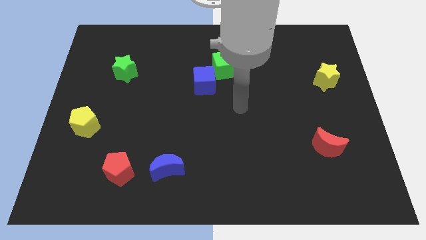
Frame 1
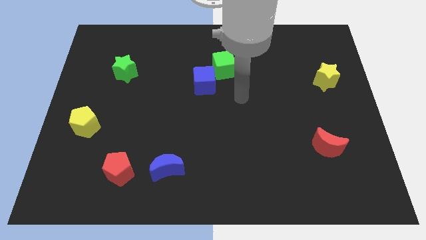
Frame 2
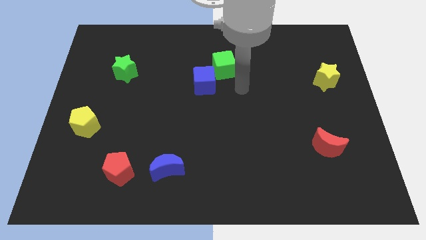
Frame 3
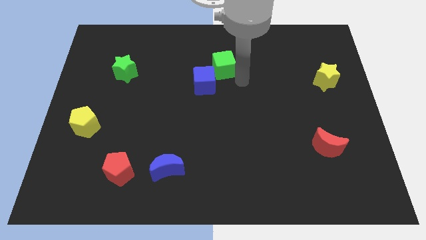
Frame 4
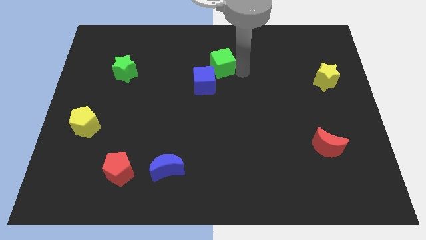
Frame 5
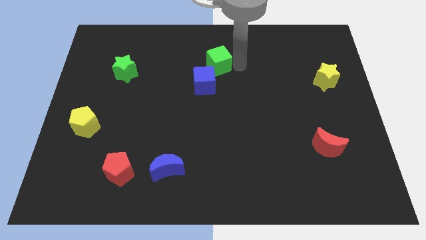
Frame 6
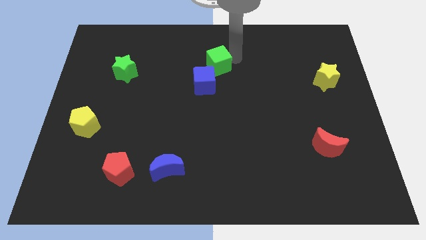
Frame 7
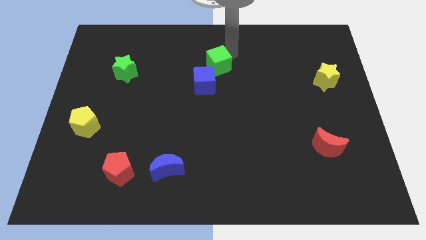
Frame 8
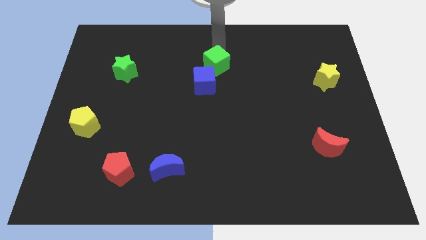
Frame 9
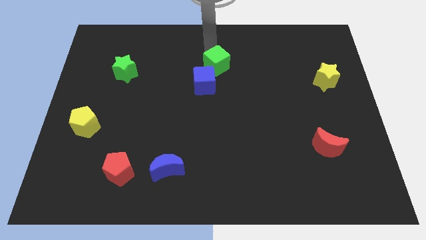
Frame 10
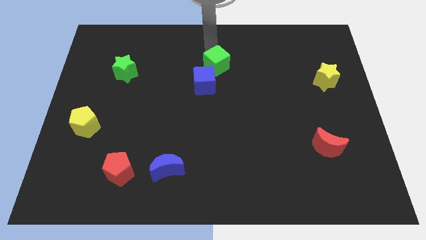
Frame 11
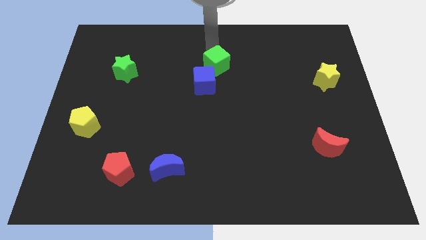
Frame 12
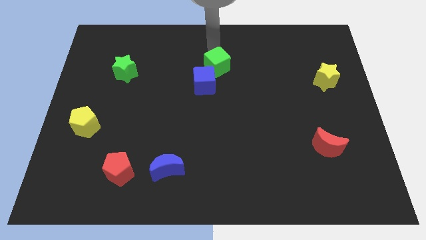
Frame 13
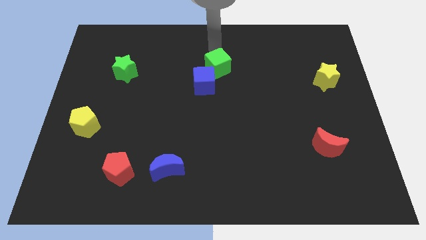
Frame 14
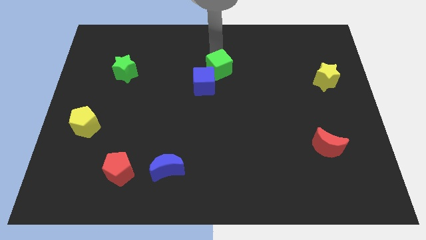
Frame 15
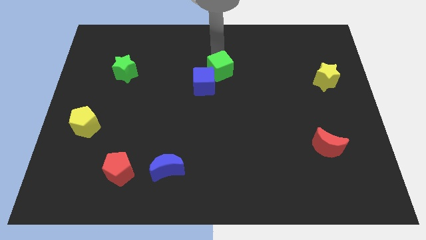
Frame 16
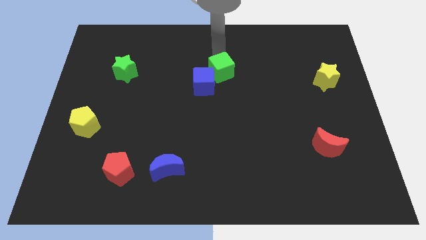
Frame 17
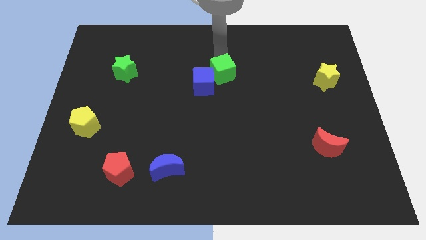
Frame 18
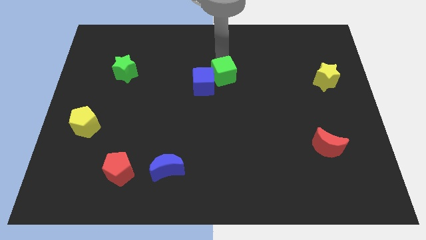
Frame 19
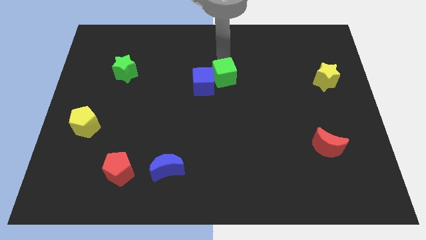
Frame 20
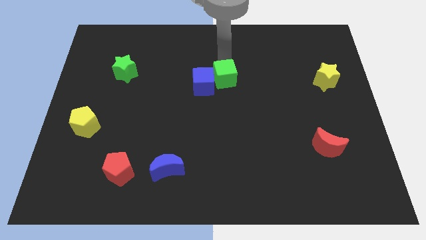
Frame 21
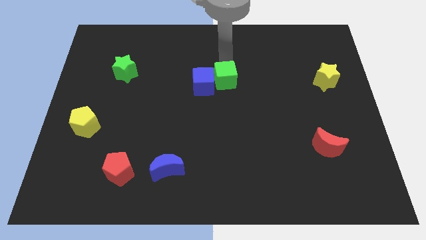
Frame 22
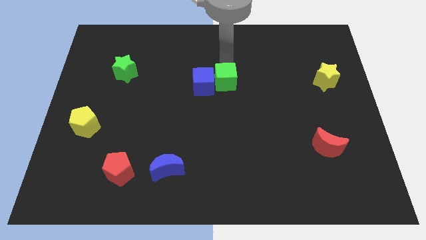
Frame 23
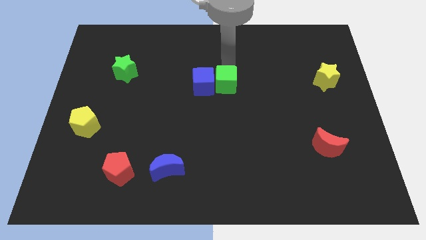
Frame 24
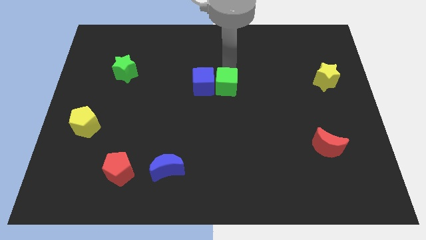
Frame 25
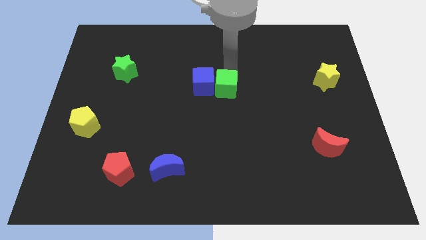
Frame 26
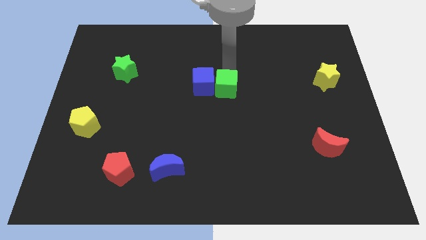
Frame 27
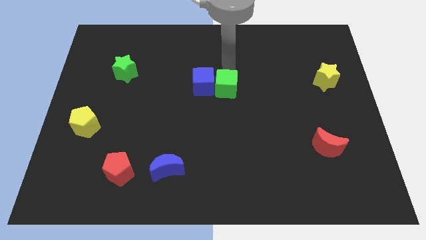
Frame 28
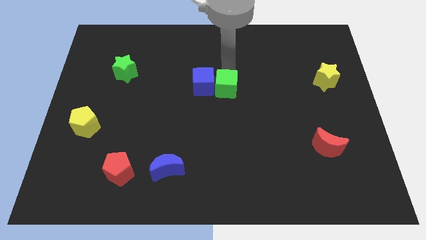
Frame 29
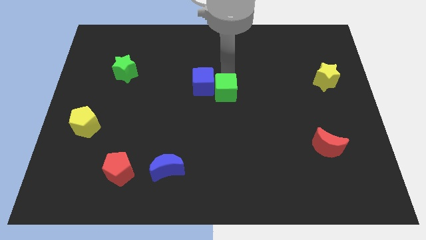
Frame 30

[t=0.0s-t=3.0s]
slide the green cube a little downwards

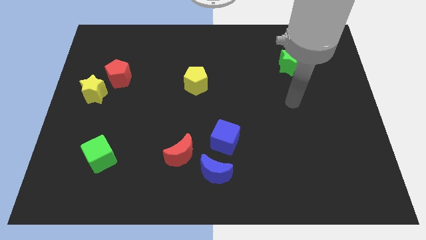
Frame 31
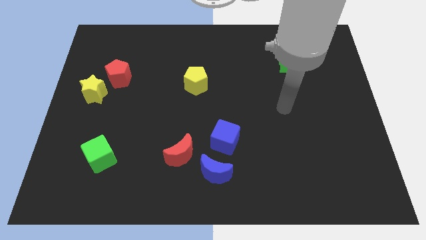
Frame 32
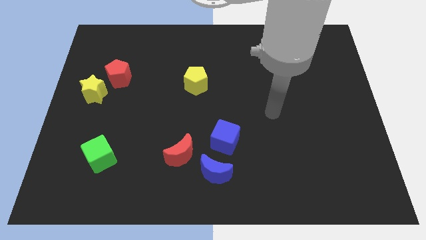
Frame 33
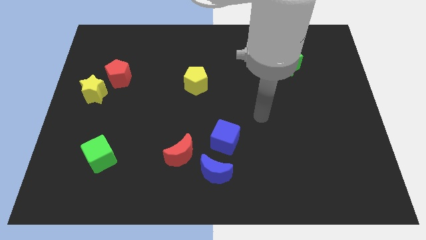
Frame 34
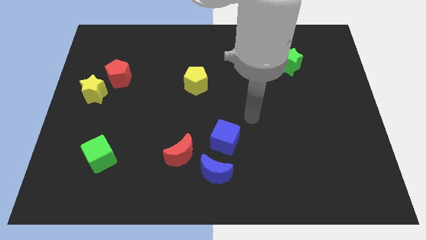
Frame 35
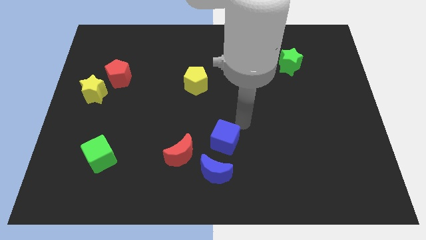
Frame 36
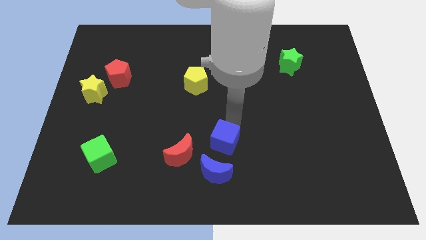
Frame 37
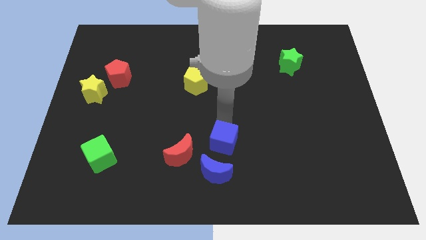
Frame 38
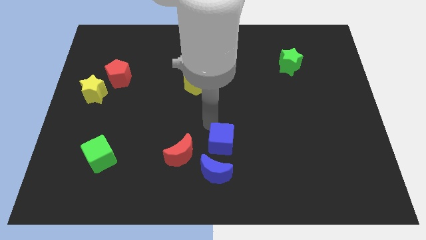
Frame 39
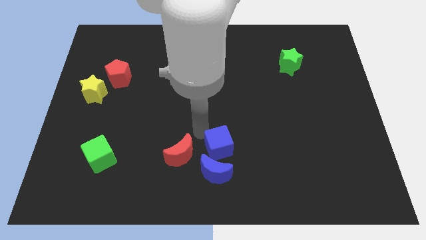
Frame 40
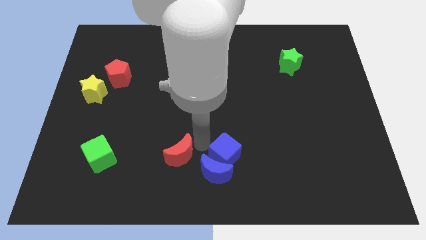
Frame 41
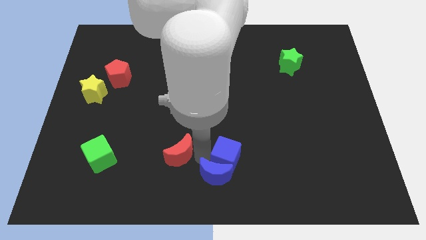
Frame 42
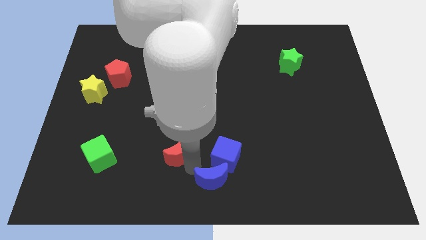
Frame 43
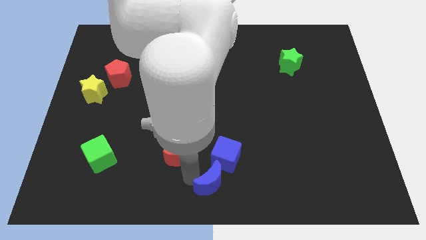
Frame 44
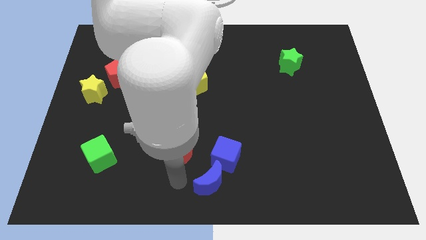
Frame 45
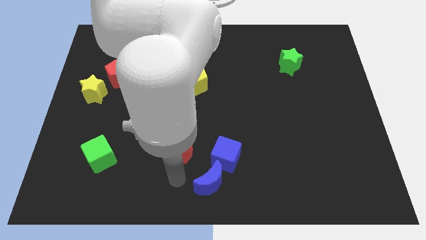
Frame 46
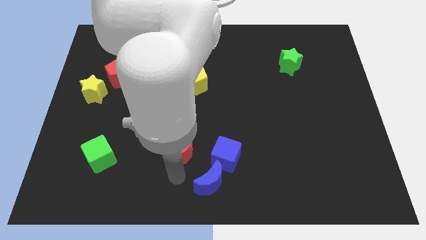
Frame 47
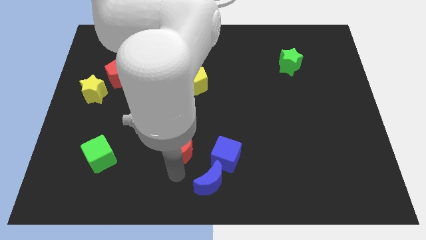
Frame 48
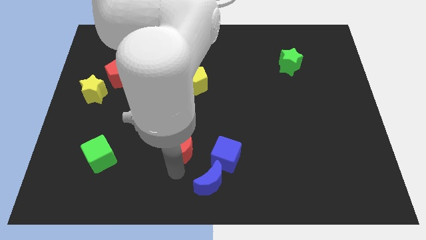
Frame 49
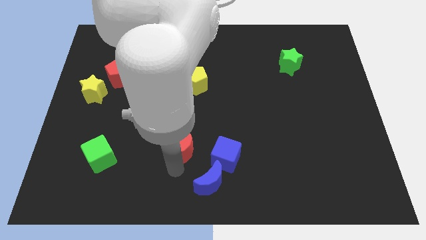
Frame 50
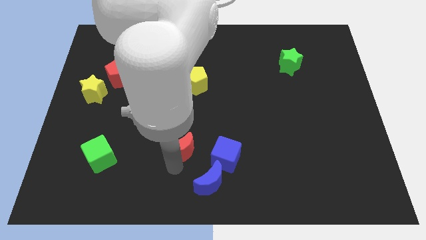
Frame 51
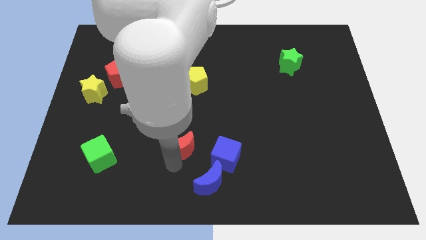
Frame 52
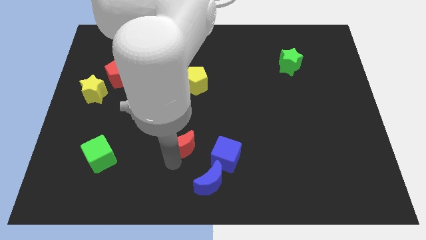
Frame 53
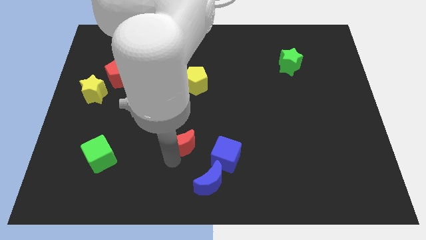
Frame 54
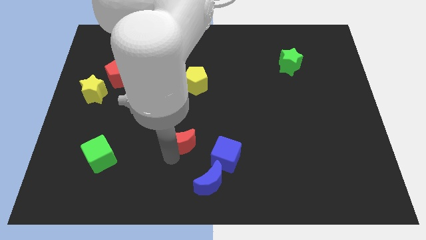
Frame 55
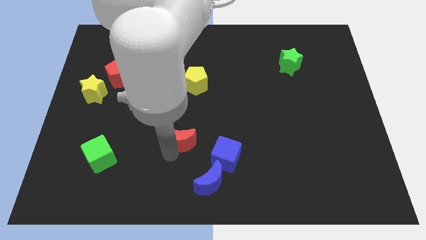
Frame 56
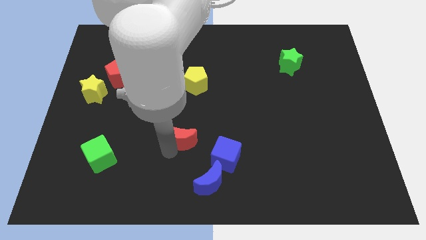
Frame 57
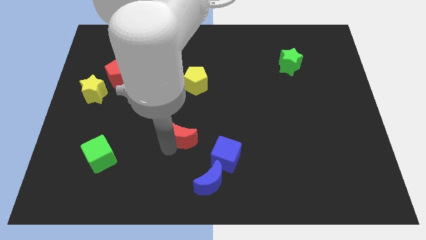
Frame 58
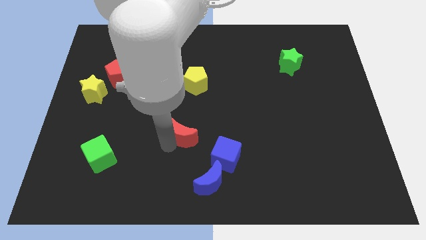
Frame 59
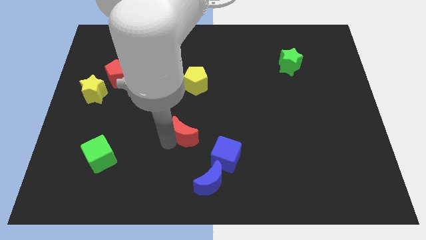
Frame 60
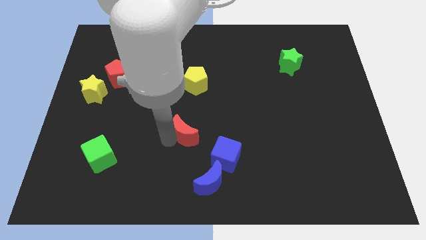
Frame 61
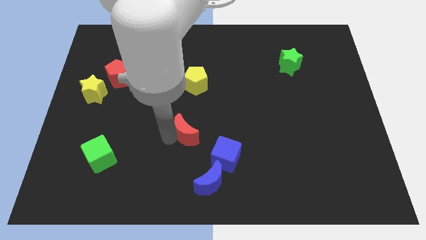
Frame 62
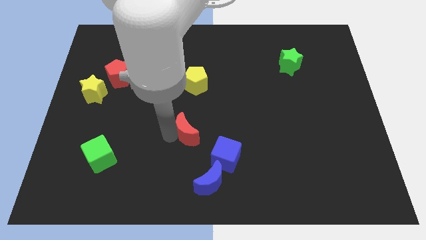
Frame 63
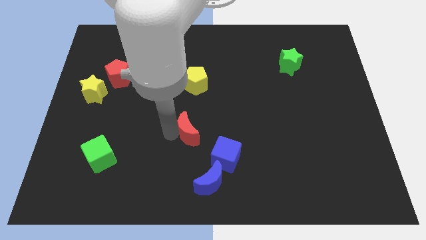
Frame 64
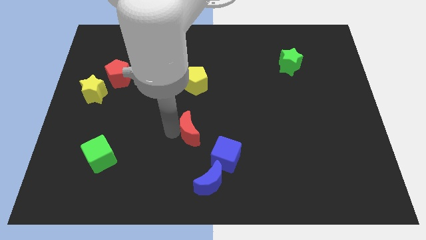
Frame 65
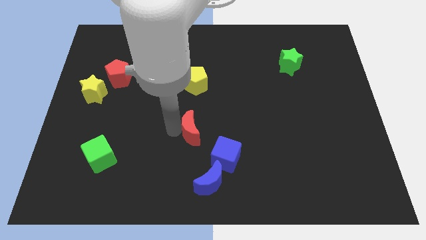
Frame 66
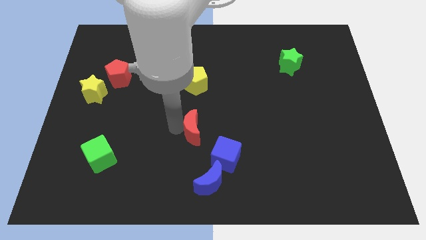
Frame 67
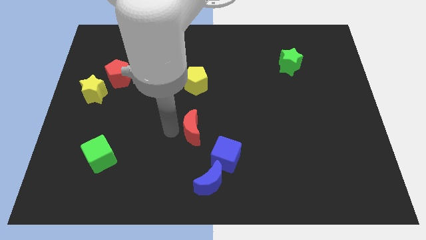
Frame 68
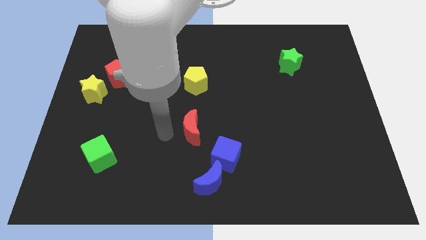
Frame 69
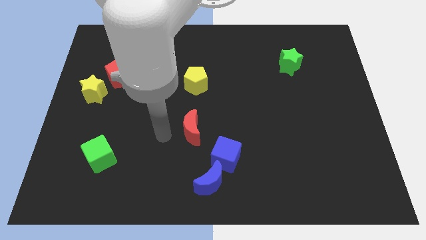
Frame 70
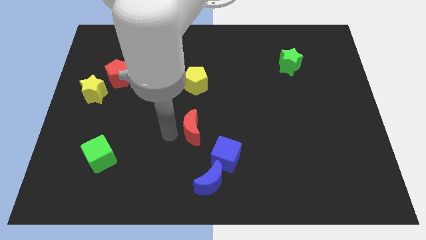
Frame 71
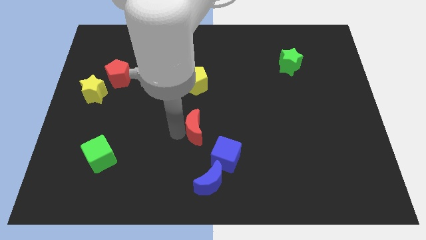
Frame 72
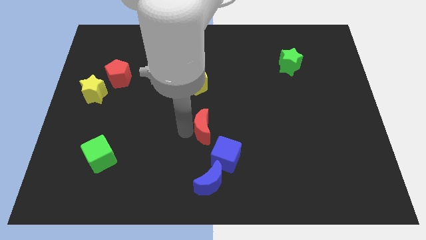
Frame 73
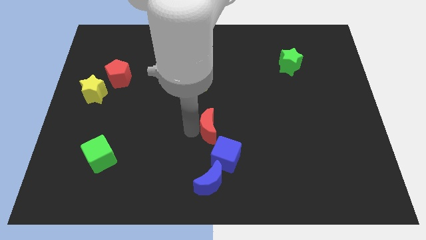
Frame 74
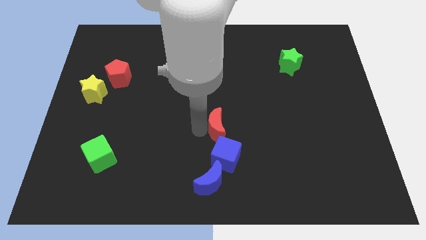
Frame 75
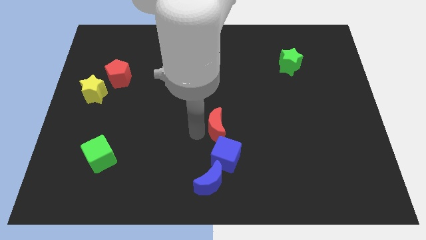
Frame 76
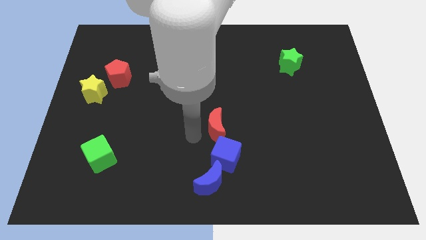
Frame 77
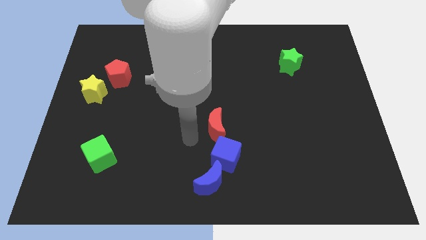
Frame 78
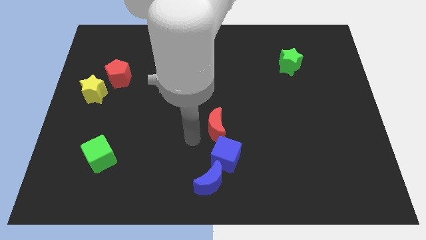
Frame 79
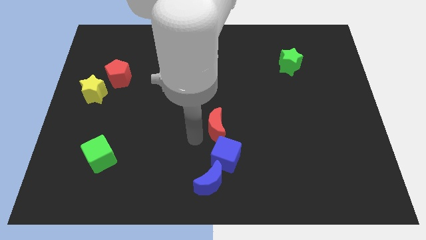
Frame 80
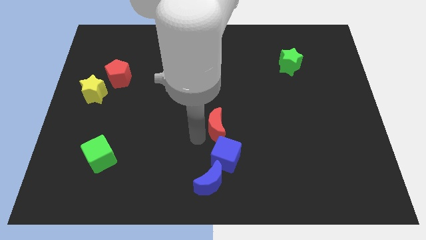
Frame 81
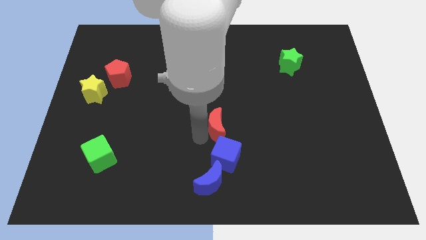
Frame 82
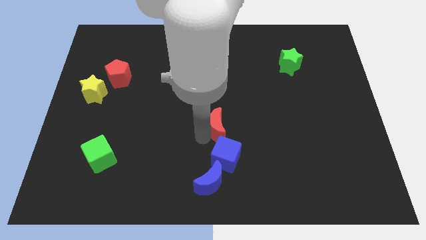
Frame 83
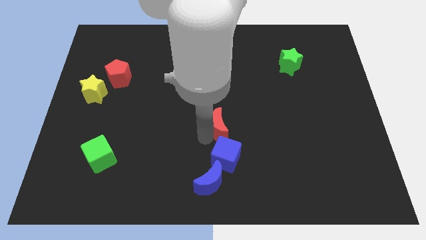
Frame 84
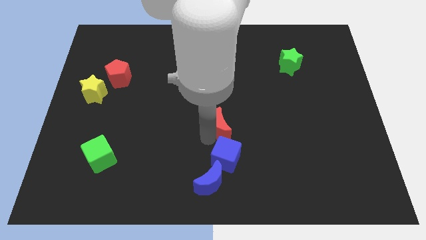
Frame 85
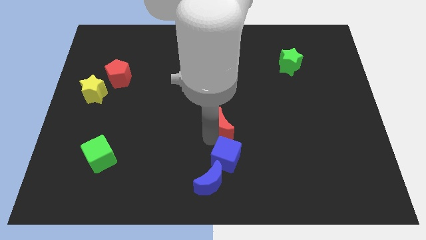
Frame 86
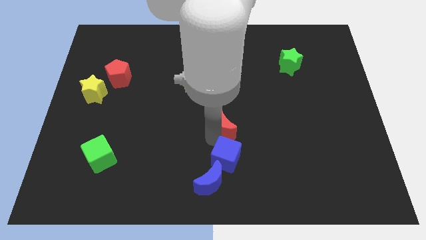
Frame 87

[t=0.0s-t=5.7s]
push the red moon right slightly
